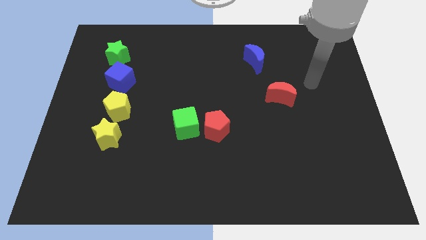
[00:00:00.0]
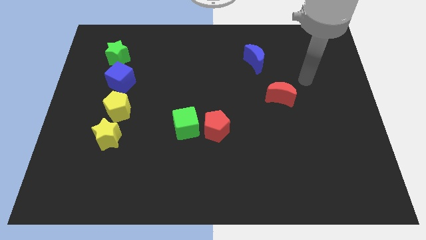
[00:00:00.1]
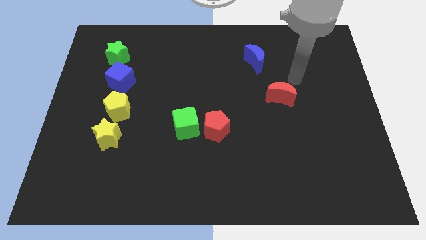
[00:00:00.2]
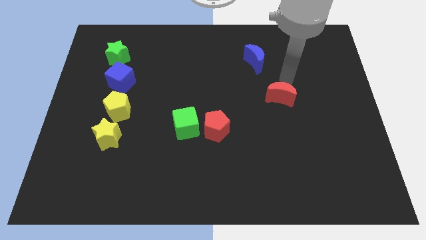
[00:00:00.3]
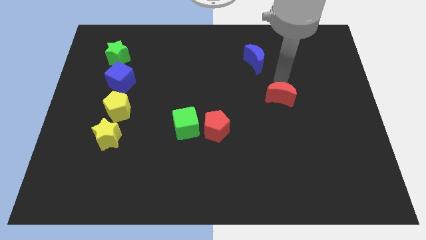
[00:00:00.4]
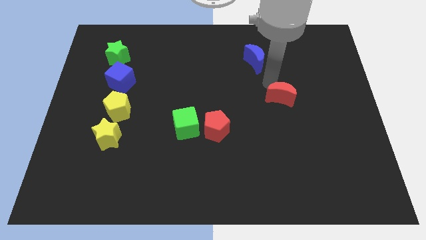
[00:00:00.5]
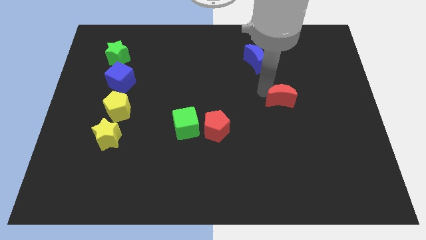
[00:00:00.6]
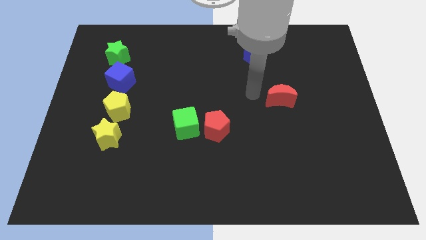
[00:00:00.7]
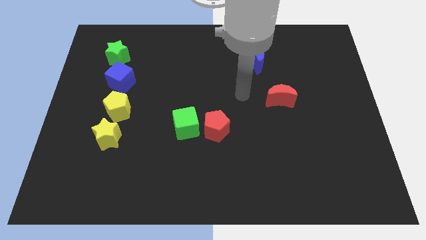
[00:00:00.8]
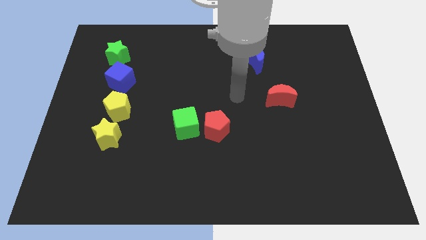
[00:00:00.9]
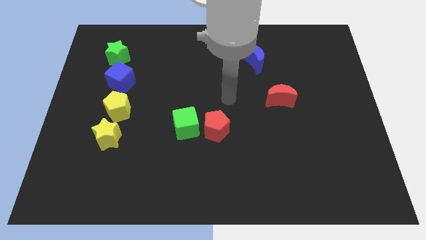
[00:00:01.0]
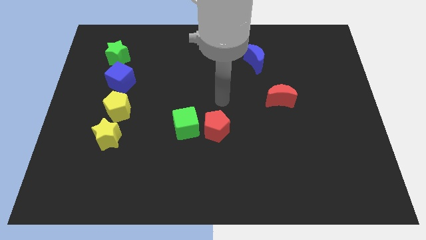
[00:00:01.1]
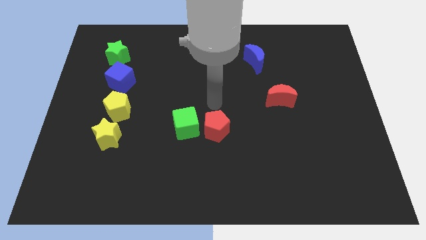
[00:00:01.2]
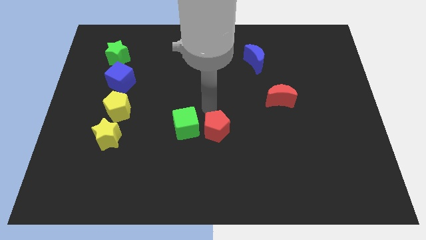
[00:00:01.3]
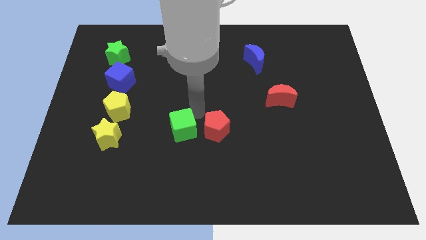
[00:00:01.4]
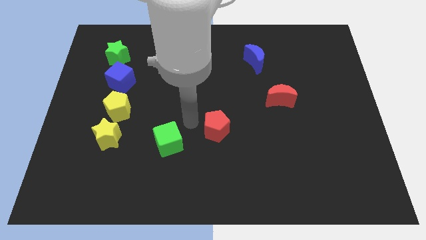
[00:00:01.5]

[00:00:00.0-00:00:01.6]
pull the red pentagon apart from the green cube

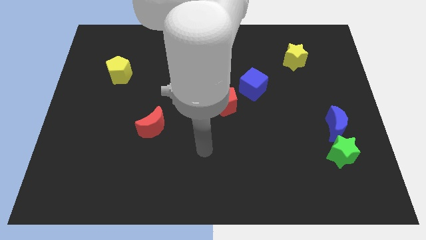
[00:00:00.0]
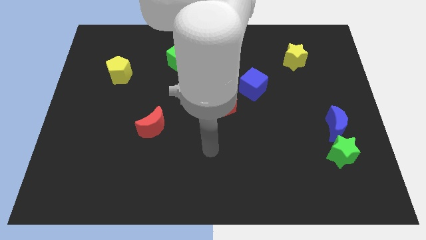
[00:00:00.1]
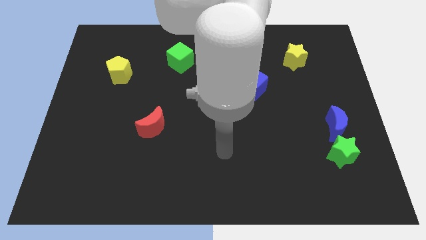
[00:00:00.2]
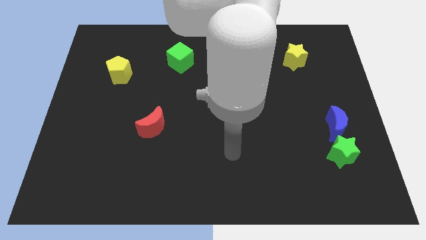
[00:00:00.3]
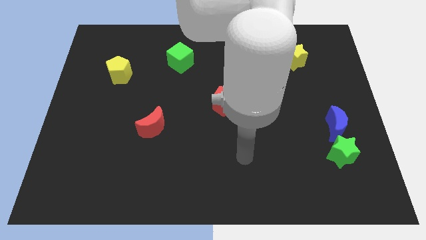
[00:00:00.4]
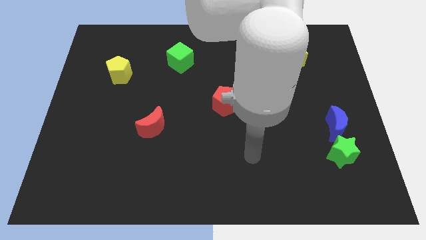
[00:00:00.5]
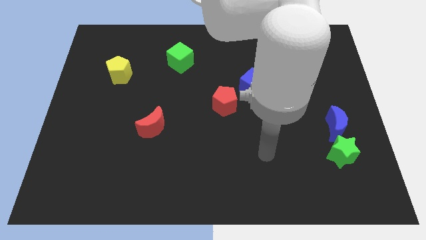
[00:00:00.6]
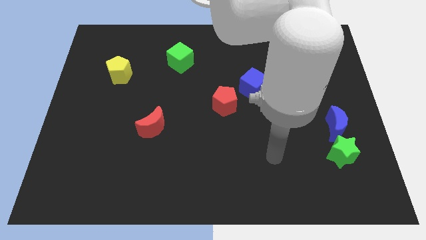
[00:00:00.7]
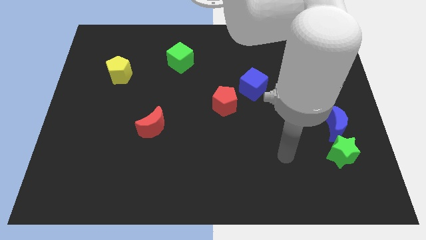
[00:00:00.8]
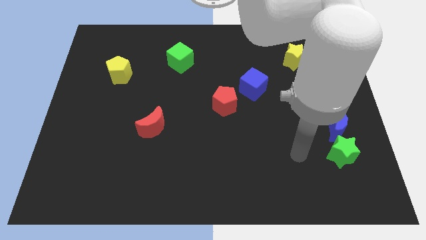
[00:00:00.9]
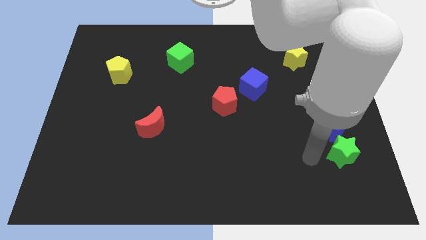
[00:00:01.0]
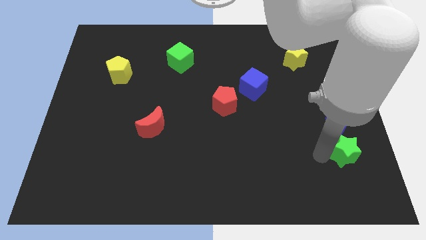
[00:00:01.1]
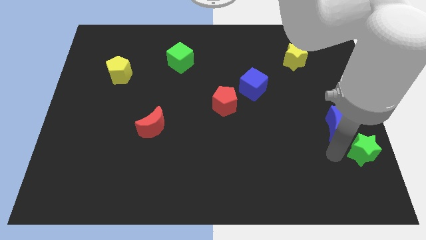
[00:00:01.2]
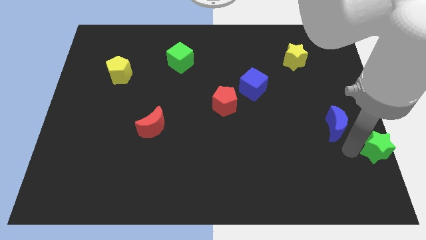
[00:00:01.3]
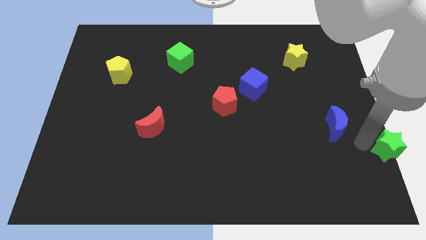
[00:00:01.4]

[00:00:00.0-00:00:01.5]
separate the blue moon from the green star

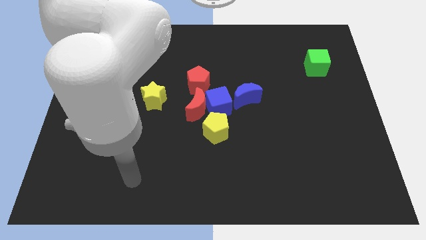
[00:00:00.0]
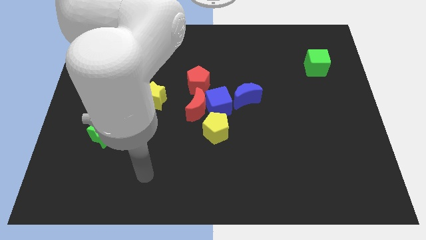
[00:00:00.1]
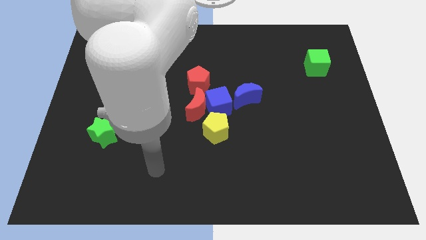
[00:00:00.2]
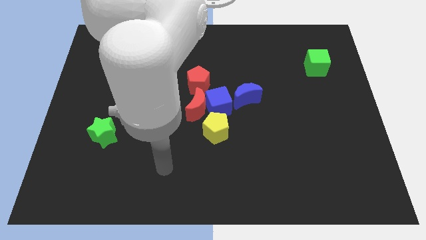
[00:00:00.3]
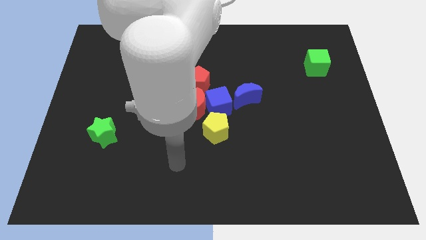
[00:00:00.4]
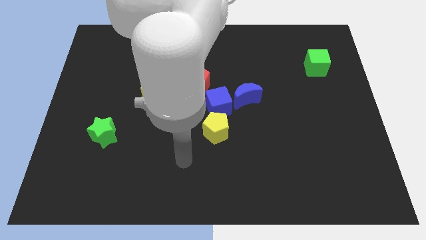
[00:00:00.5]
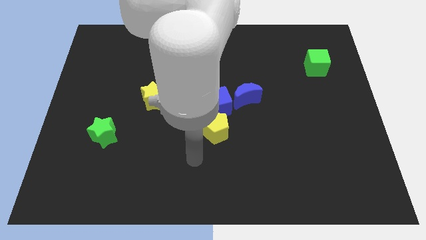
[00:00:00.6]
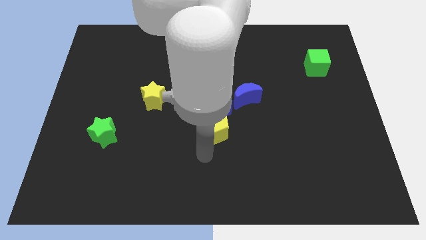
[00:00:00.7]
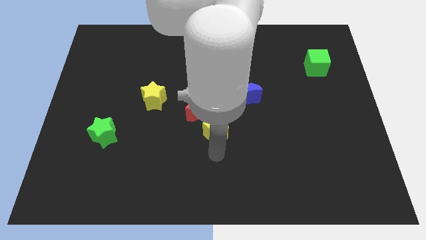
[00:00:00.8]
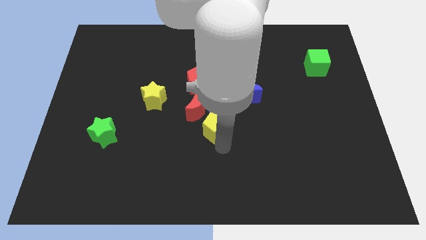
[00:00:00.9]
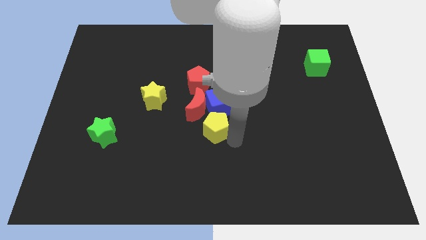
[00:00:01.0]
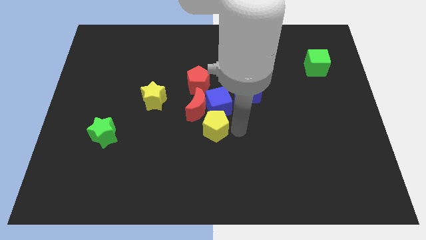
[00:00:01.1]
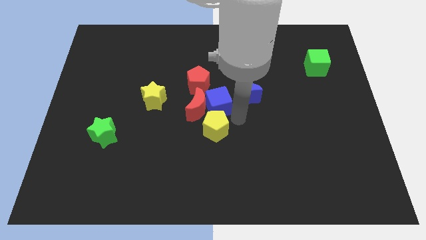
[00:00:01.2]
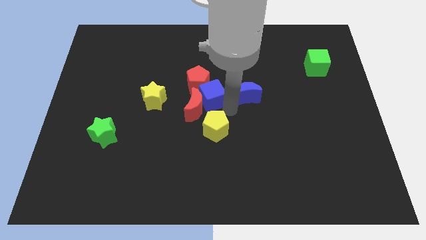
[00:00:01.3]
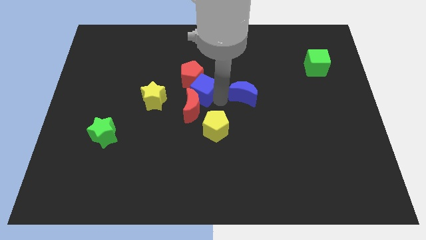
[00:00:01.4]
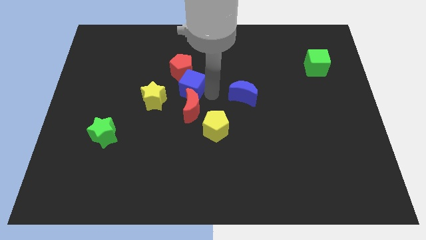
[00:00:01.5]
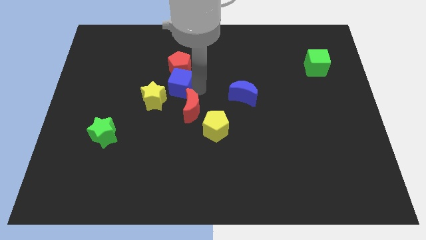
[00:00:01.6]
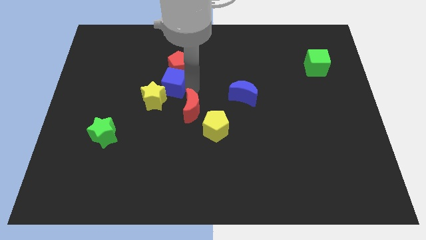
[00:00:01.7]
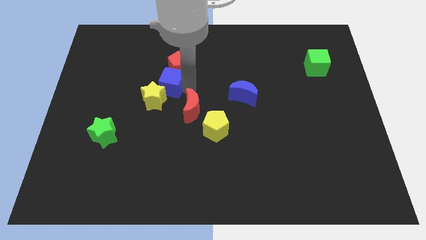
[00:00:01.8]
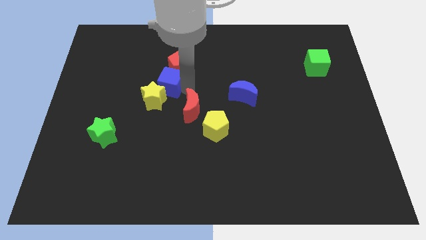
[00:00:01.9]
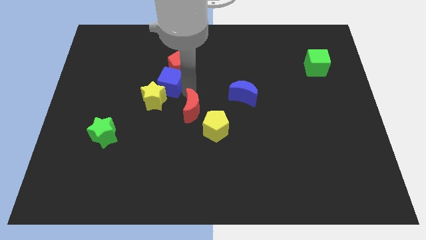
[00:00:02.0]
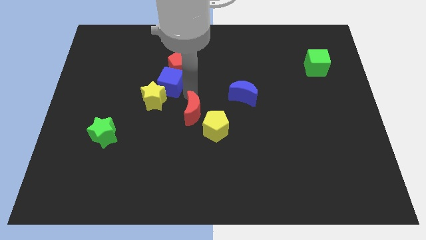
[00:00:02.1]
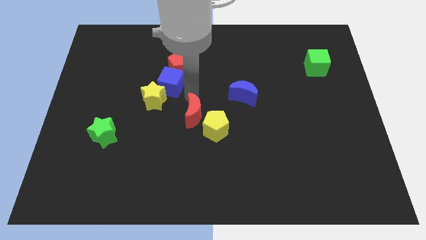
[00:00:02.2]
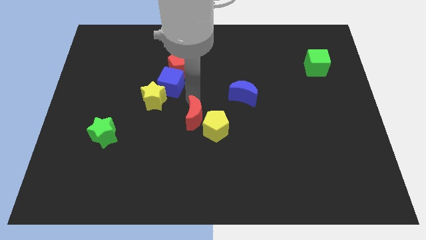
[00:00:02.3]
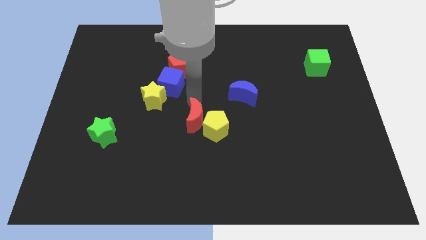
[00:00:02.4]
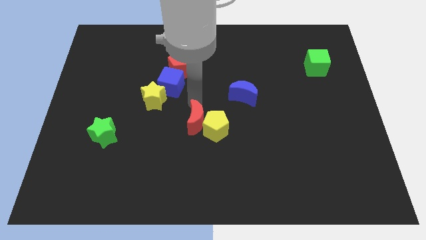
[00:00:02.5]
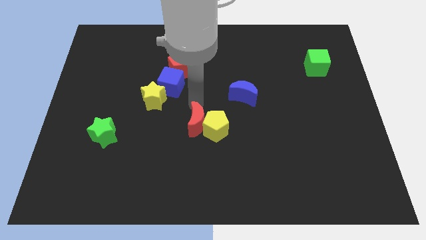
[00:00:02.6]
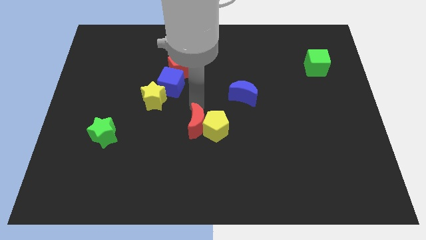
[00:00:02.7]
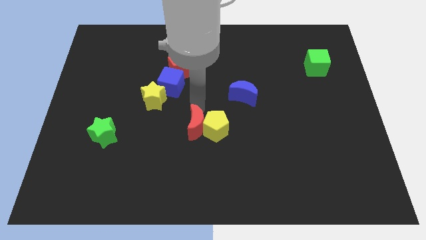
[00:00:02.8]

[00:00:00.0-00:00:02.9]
move the red moon away from the group

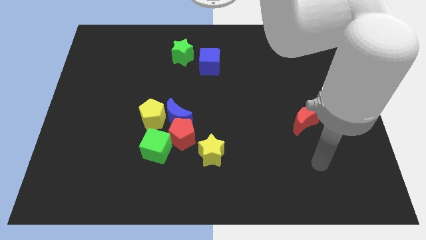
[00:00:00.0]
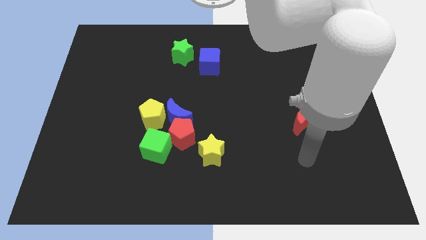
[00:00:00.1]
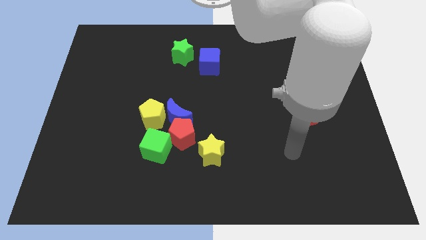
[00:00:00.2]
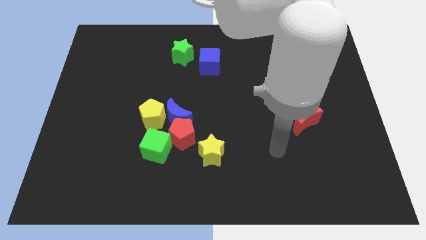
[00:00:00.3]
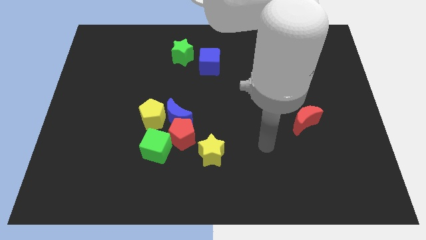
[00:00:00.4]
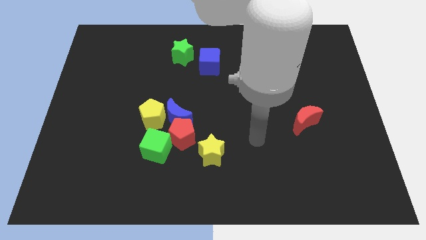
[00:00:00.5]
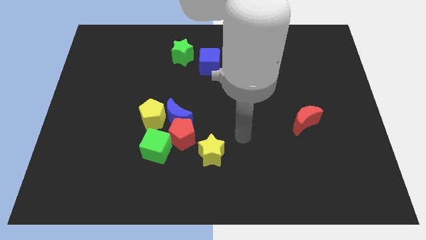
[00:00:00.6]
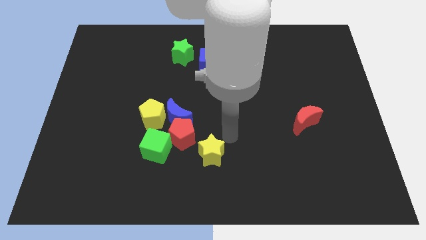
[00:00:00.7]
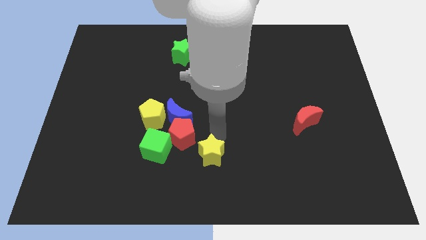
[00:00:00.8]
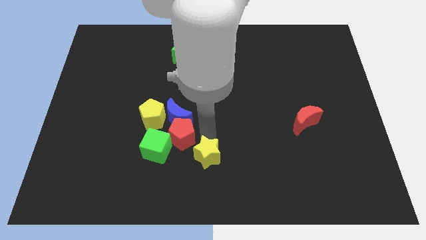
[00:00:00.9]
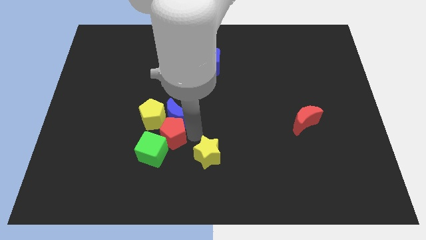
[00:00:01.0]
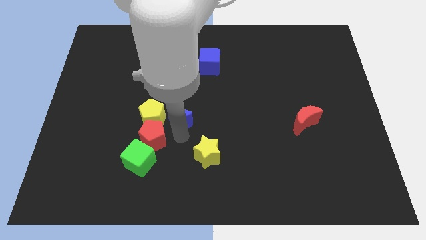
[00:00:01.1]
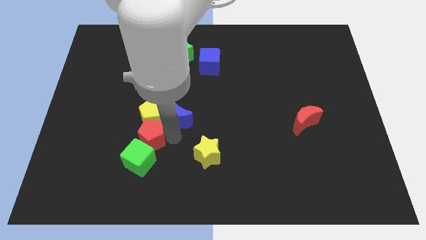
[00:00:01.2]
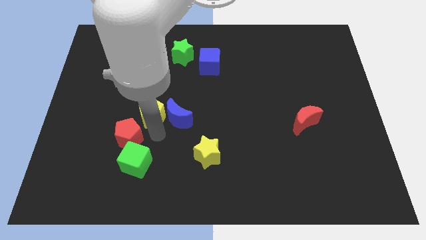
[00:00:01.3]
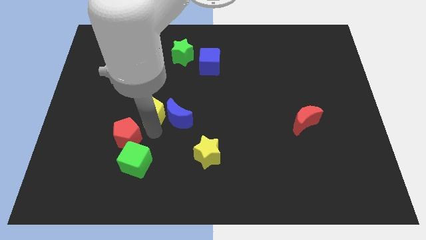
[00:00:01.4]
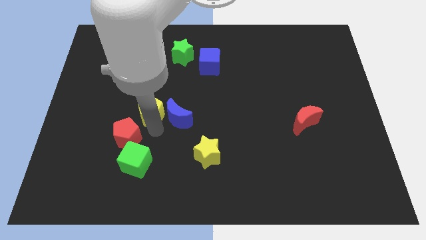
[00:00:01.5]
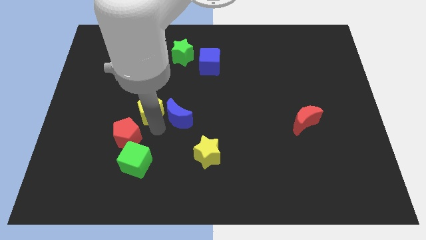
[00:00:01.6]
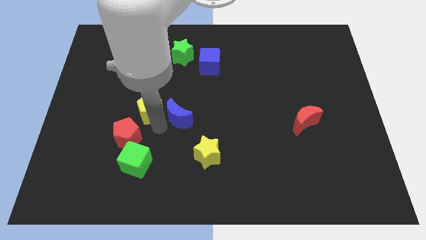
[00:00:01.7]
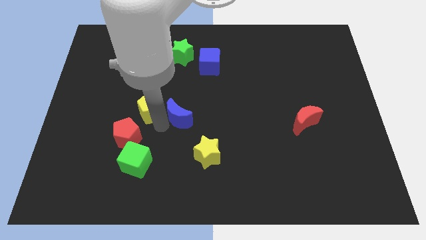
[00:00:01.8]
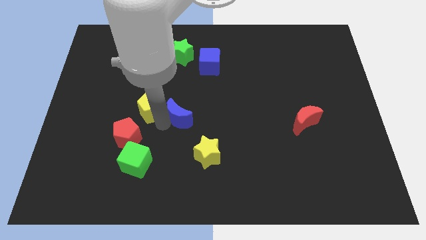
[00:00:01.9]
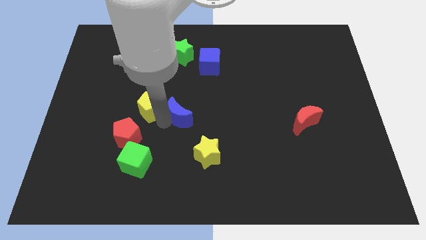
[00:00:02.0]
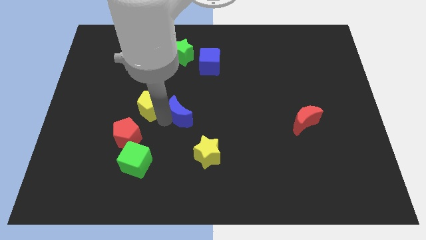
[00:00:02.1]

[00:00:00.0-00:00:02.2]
move the blue moon away from the red pentagon, yellow pentagon, and green cube

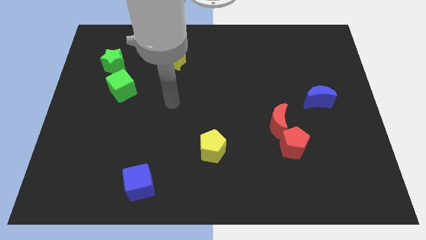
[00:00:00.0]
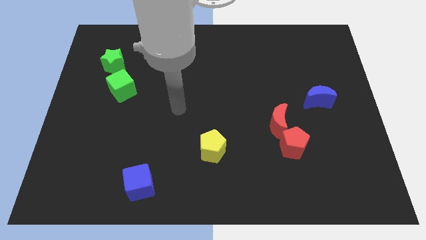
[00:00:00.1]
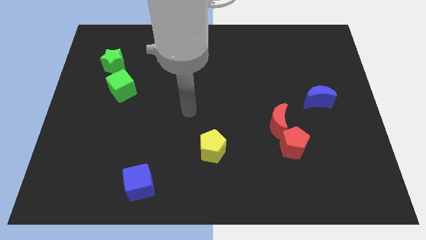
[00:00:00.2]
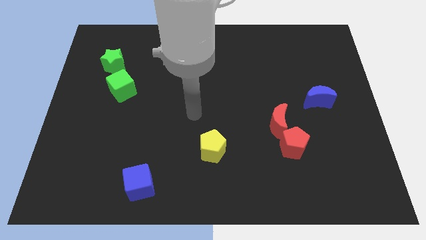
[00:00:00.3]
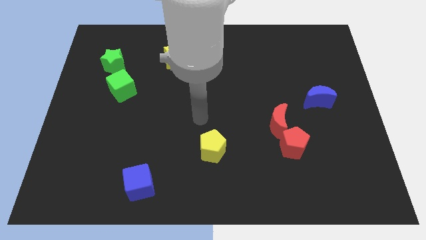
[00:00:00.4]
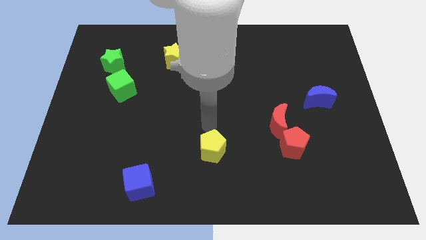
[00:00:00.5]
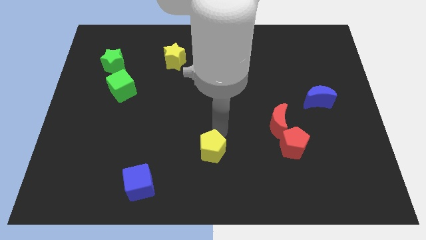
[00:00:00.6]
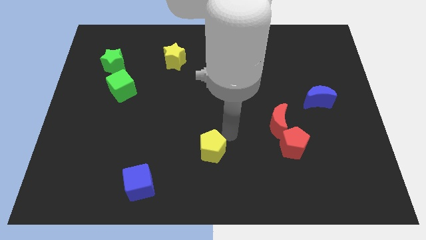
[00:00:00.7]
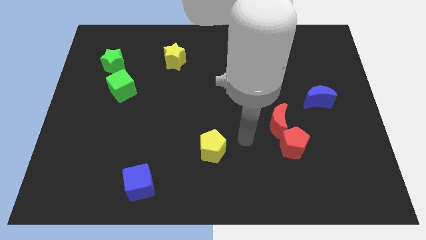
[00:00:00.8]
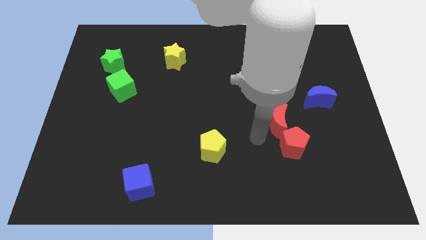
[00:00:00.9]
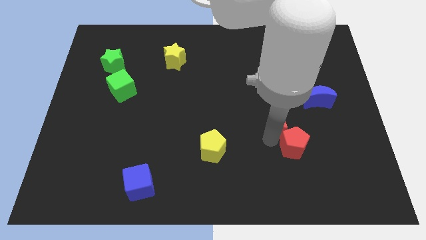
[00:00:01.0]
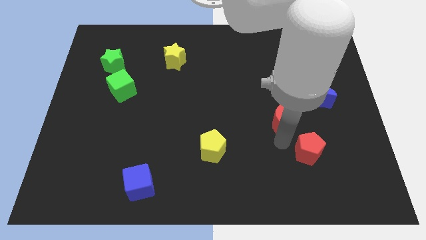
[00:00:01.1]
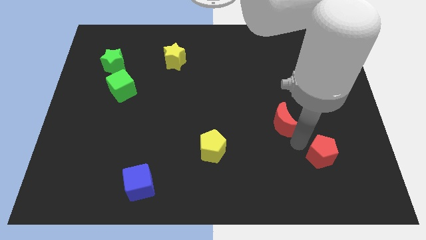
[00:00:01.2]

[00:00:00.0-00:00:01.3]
separate the red moon from the red pentagon
